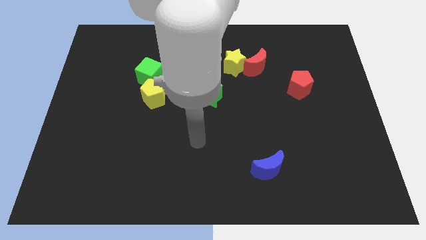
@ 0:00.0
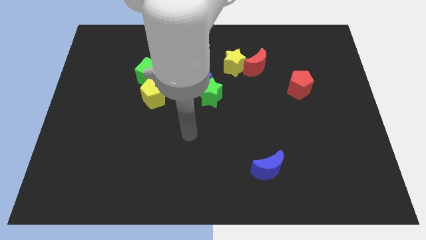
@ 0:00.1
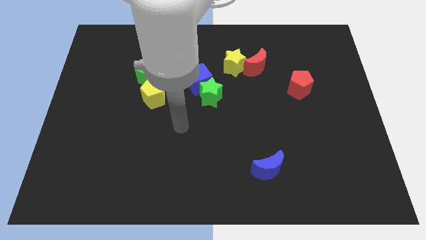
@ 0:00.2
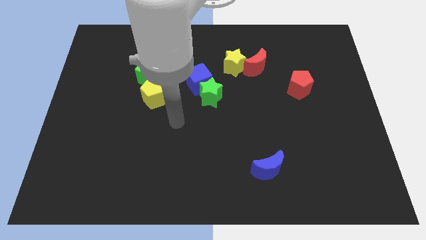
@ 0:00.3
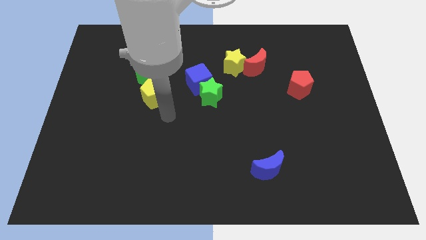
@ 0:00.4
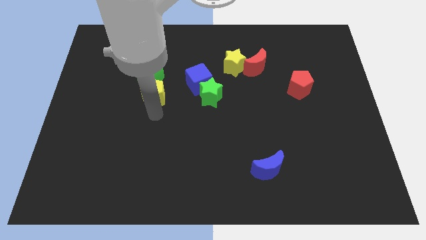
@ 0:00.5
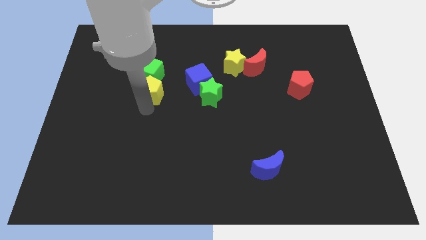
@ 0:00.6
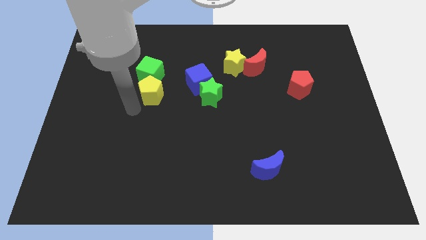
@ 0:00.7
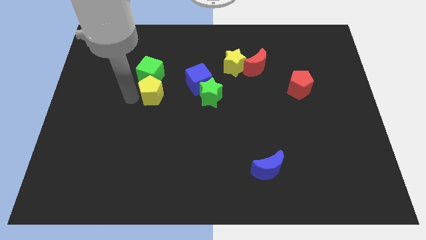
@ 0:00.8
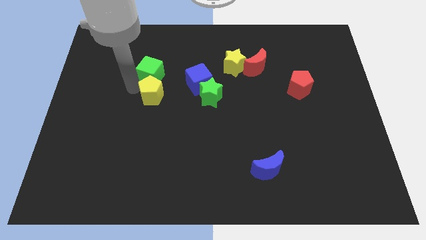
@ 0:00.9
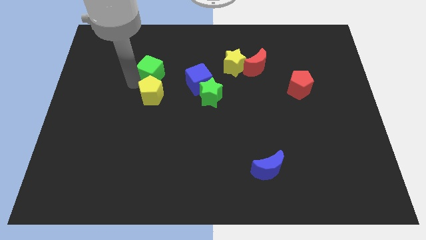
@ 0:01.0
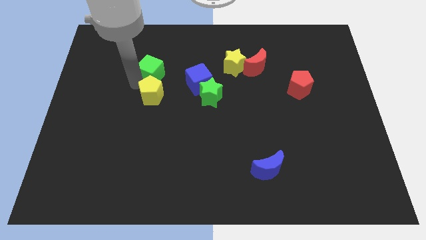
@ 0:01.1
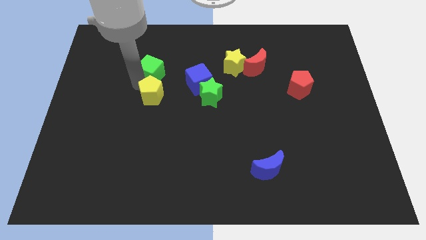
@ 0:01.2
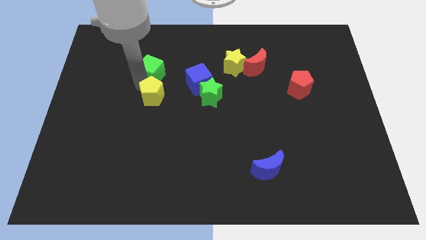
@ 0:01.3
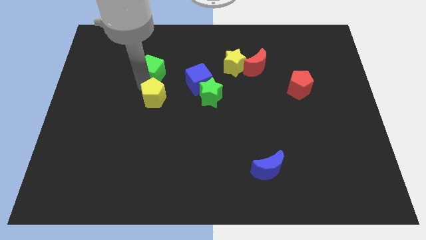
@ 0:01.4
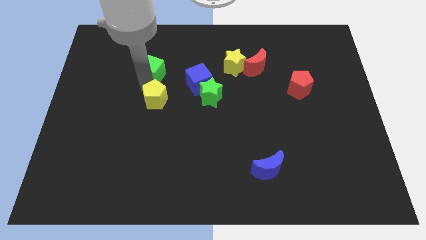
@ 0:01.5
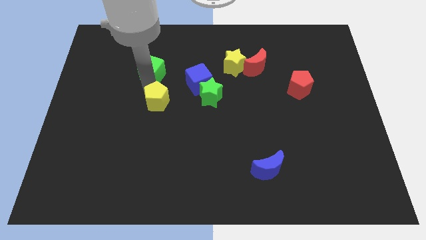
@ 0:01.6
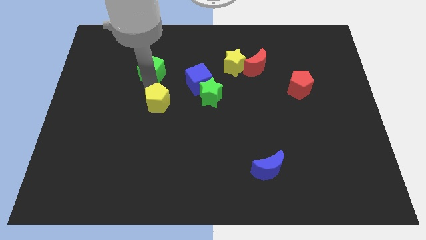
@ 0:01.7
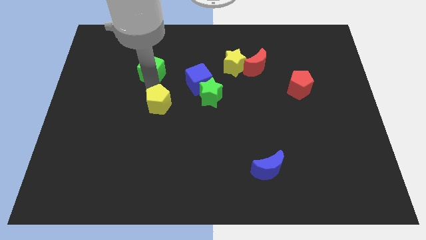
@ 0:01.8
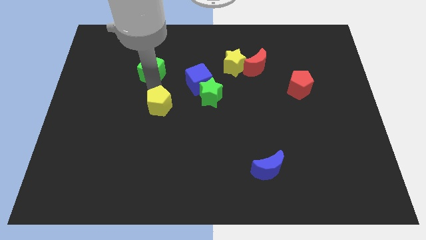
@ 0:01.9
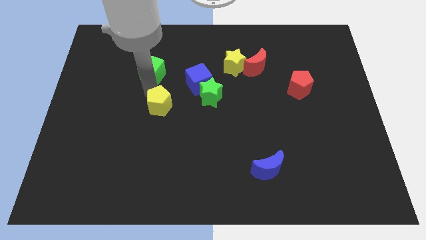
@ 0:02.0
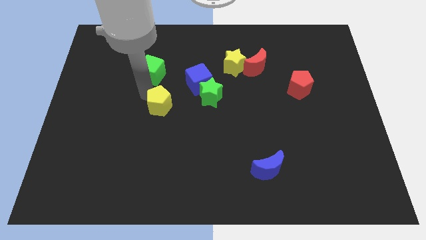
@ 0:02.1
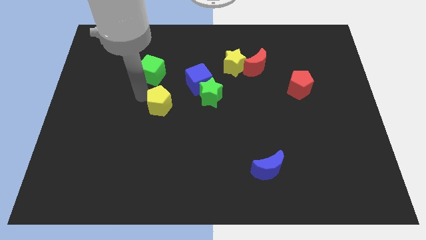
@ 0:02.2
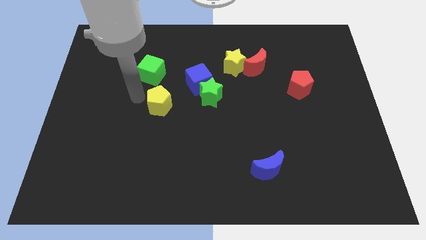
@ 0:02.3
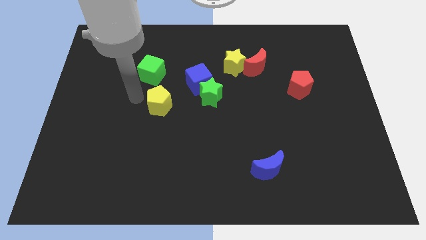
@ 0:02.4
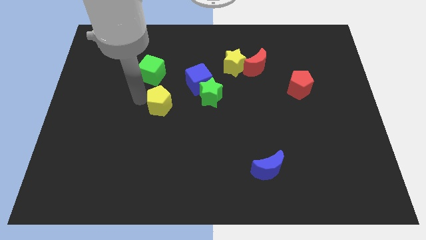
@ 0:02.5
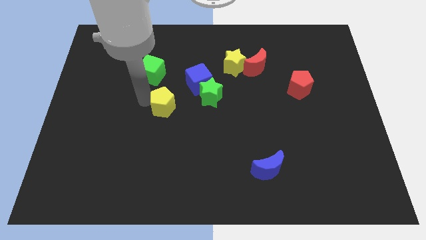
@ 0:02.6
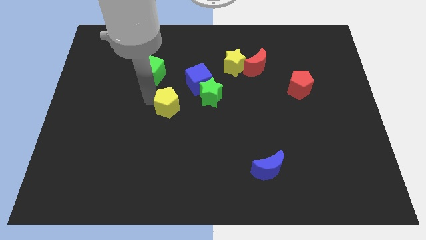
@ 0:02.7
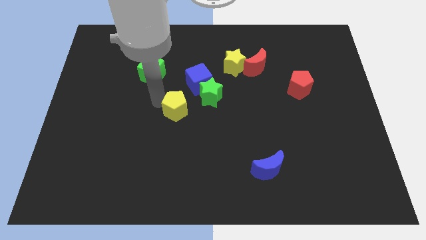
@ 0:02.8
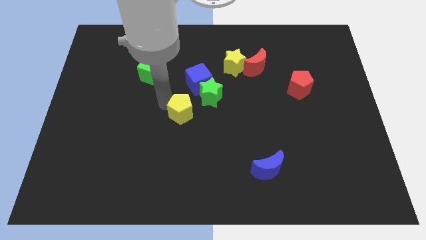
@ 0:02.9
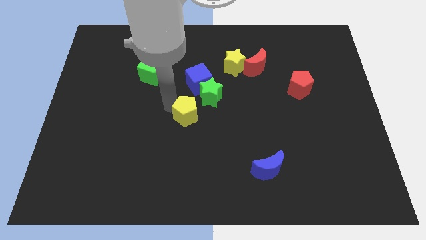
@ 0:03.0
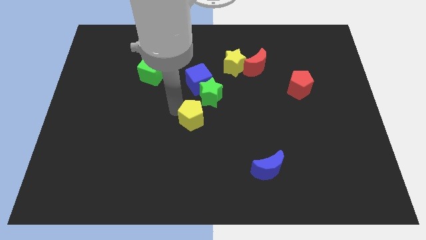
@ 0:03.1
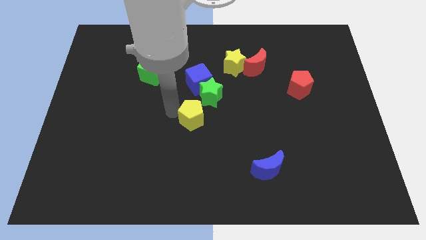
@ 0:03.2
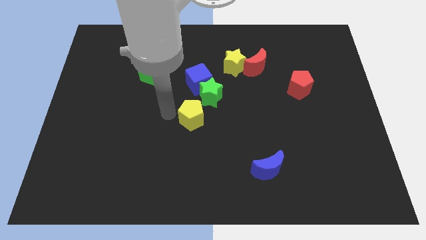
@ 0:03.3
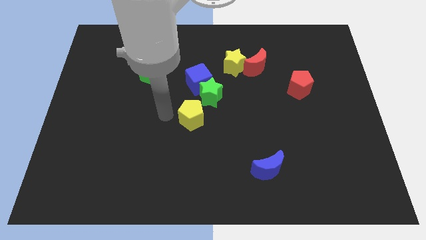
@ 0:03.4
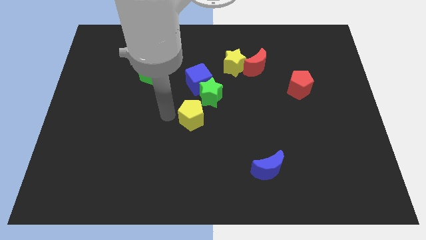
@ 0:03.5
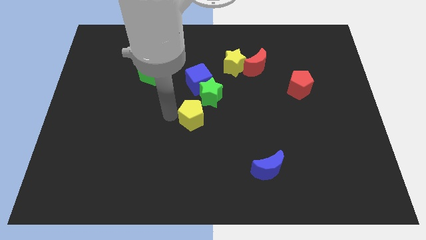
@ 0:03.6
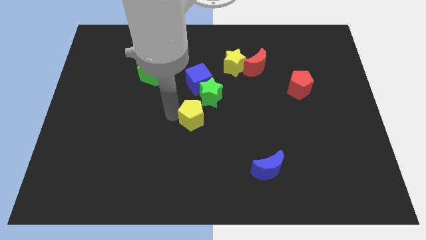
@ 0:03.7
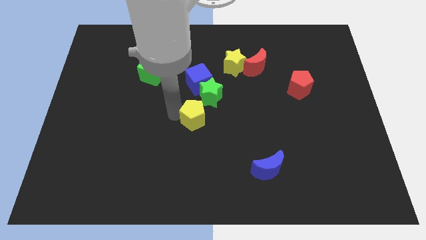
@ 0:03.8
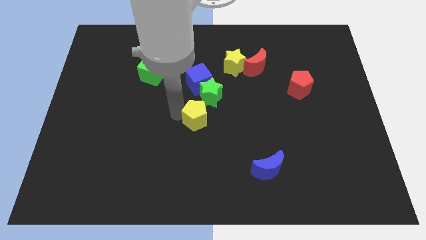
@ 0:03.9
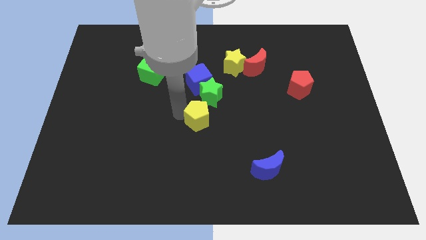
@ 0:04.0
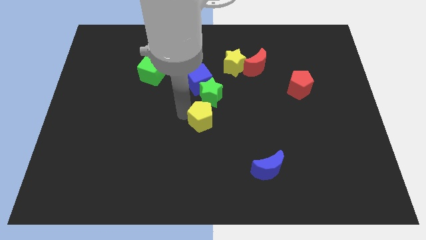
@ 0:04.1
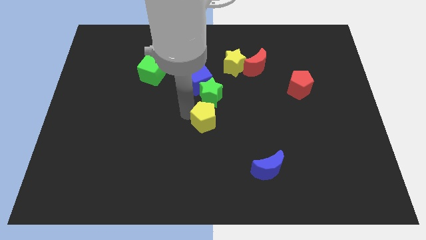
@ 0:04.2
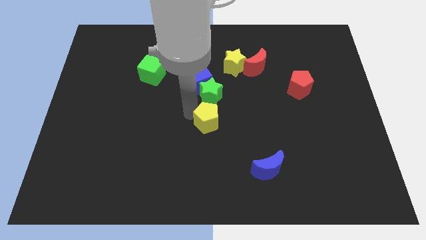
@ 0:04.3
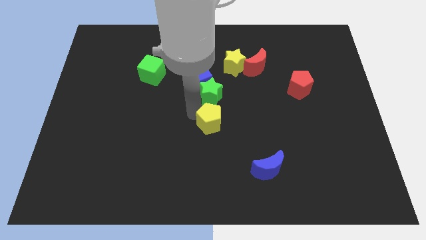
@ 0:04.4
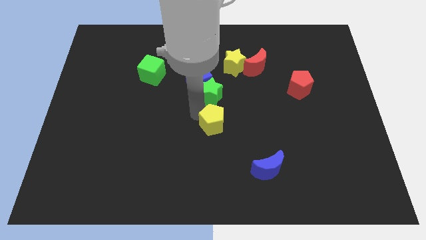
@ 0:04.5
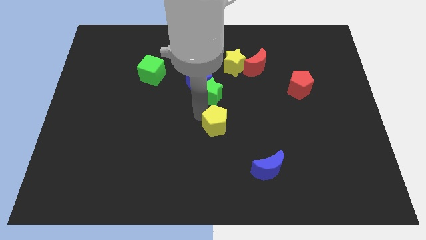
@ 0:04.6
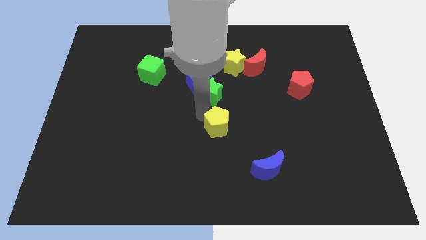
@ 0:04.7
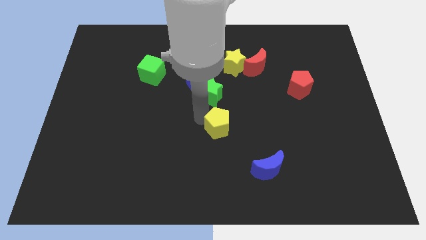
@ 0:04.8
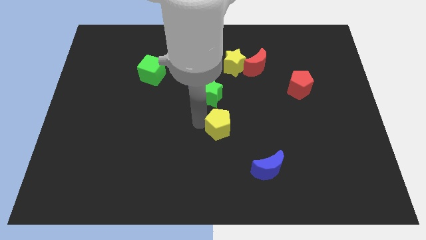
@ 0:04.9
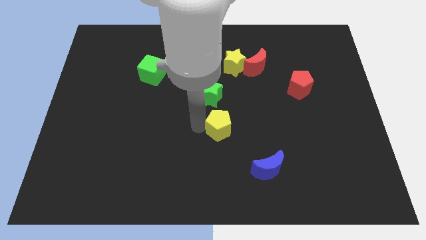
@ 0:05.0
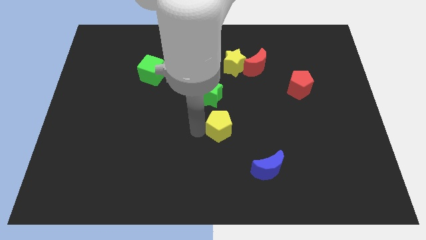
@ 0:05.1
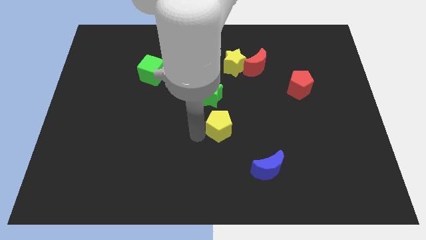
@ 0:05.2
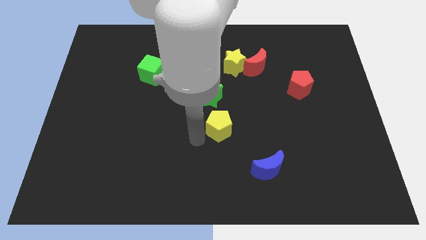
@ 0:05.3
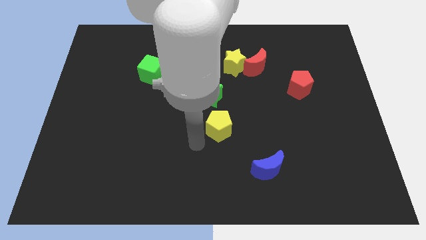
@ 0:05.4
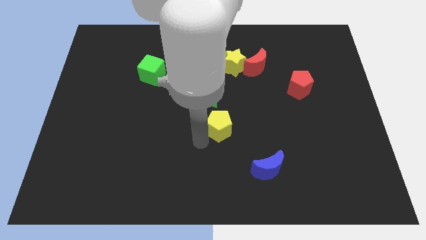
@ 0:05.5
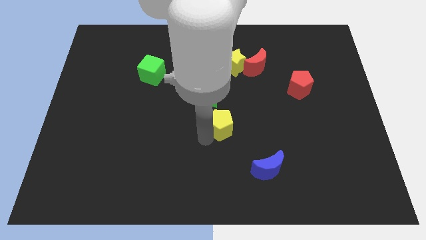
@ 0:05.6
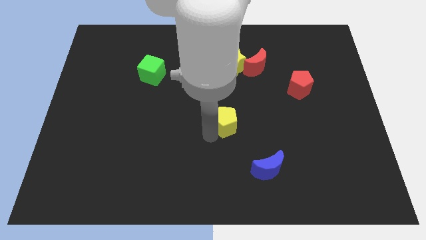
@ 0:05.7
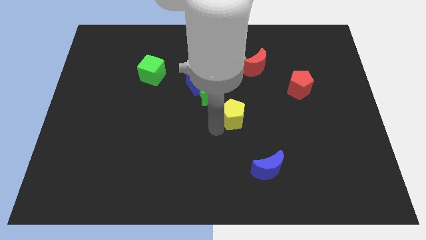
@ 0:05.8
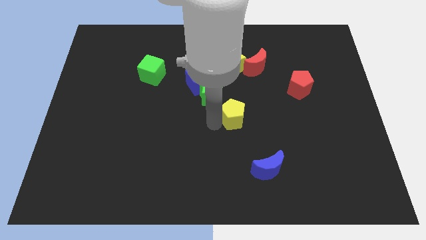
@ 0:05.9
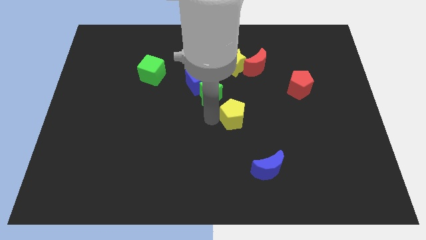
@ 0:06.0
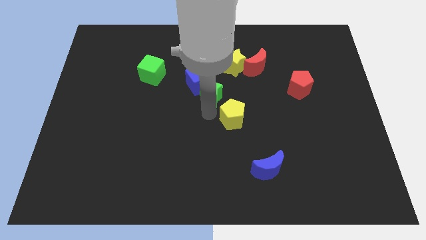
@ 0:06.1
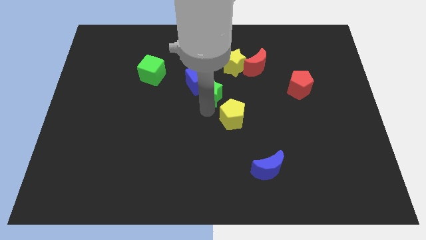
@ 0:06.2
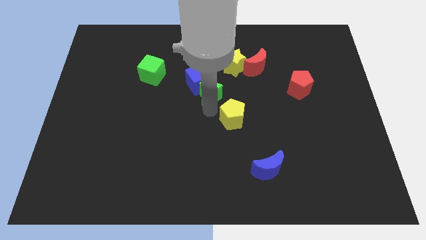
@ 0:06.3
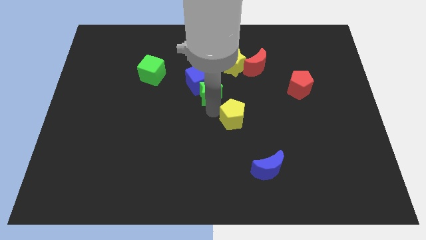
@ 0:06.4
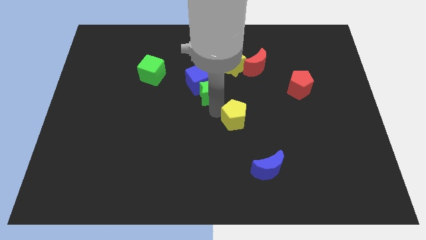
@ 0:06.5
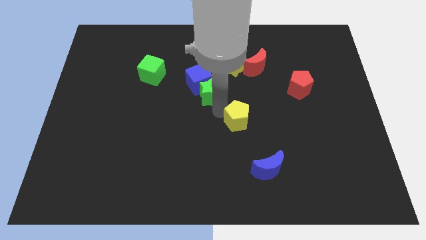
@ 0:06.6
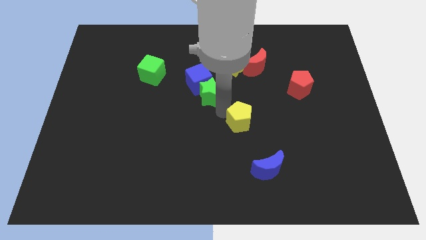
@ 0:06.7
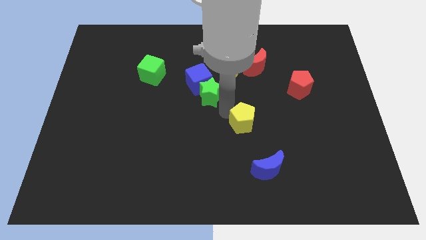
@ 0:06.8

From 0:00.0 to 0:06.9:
slide the yellow pentagon to the top of the blue moon

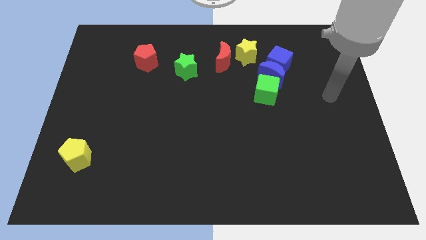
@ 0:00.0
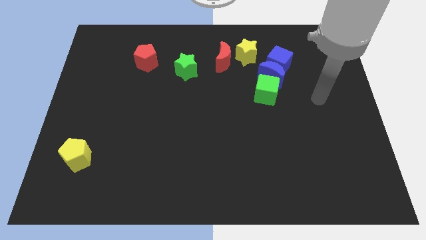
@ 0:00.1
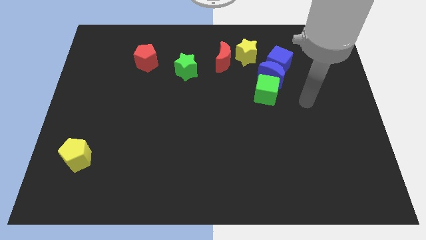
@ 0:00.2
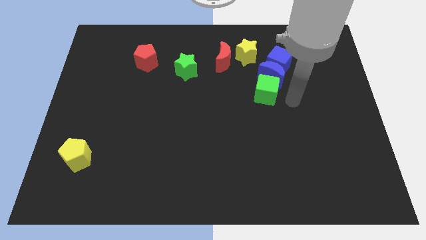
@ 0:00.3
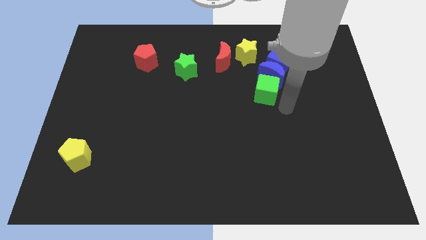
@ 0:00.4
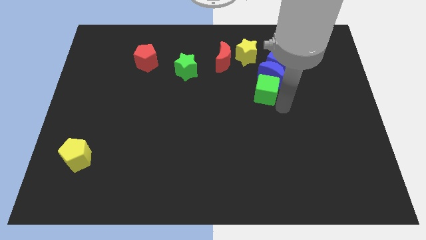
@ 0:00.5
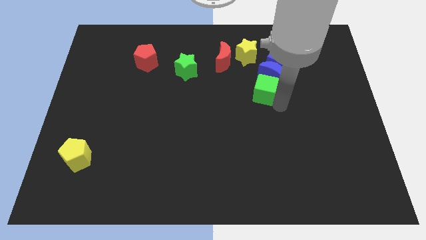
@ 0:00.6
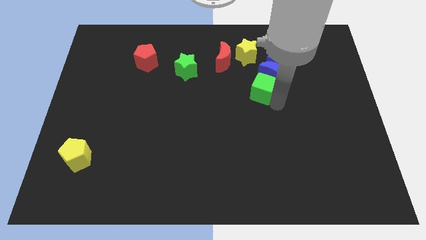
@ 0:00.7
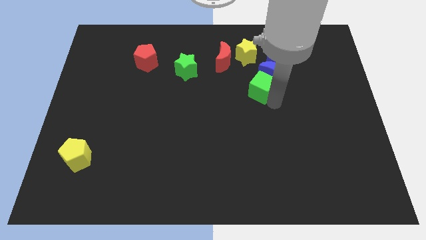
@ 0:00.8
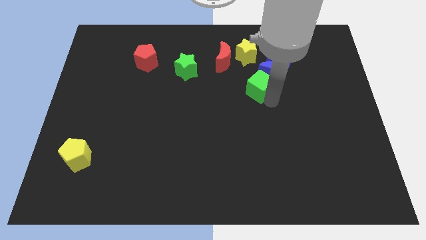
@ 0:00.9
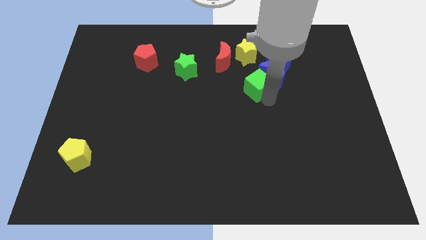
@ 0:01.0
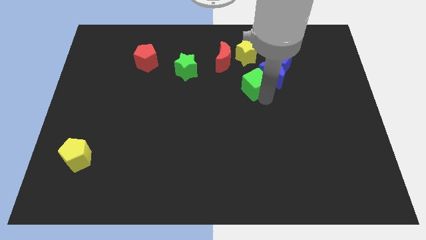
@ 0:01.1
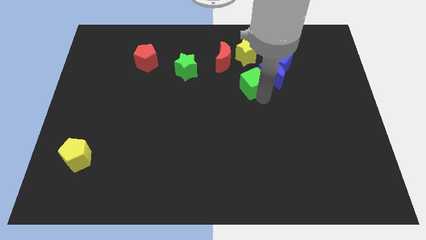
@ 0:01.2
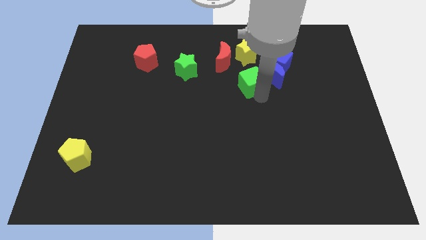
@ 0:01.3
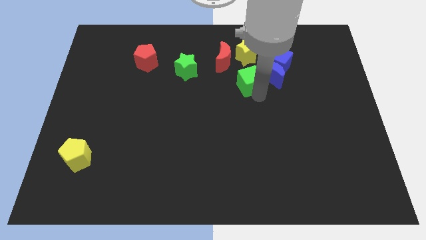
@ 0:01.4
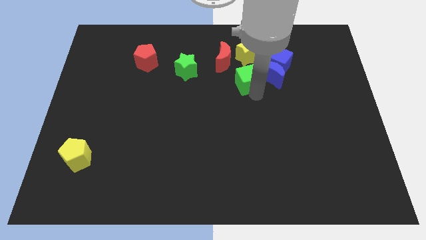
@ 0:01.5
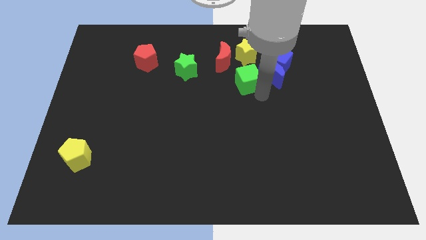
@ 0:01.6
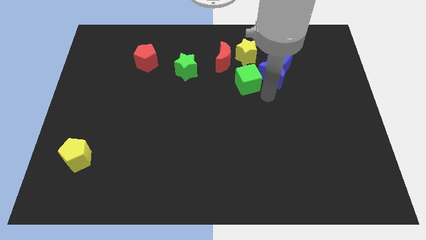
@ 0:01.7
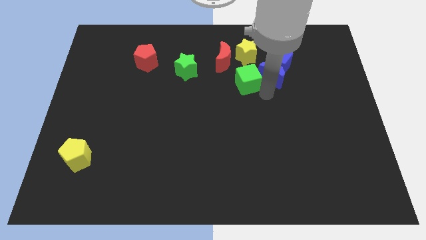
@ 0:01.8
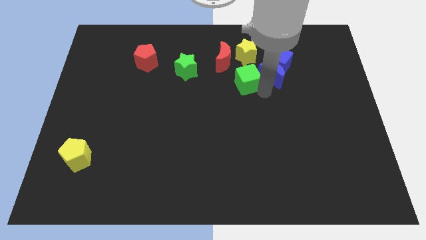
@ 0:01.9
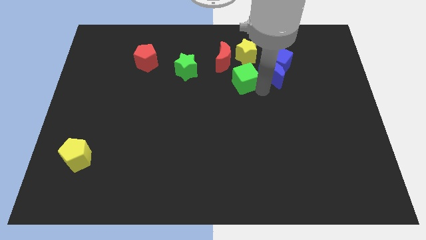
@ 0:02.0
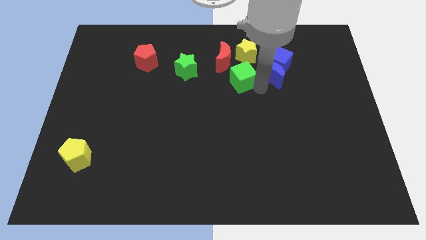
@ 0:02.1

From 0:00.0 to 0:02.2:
push the green cube to the bottom left of the yellow star
